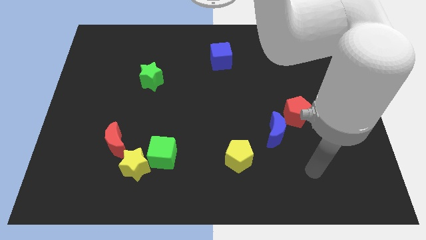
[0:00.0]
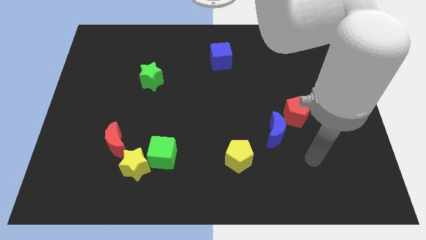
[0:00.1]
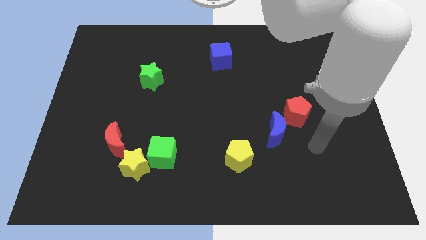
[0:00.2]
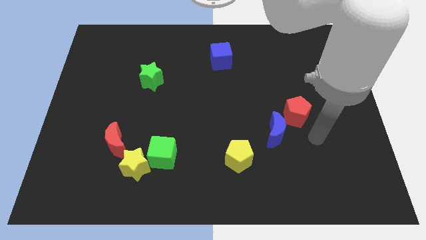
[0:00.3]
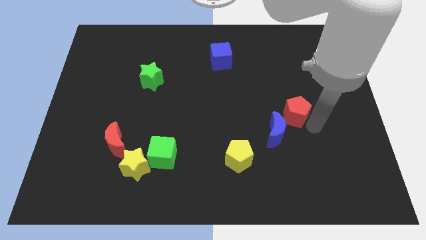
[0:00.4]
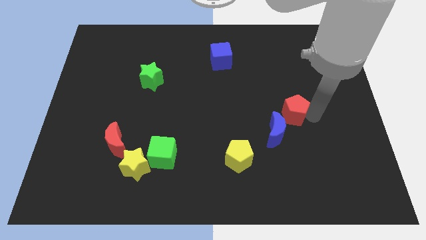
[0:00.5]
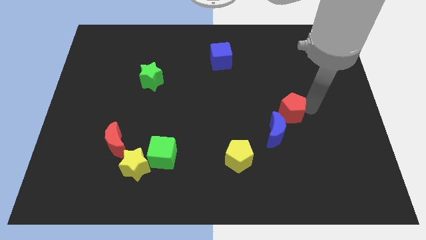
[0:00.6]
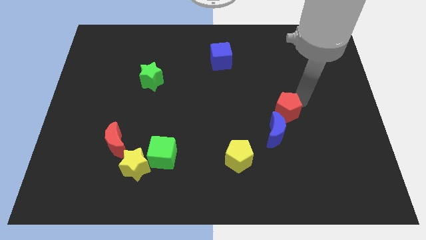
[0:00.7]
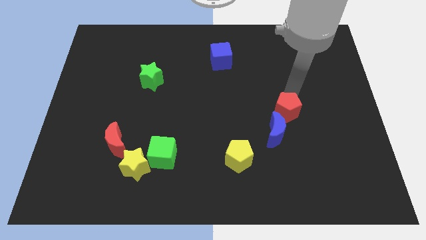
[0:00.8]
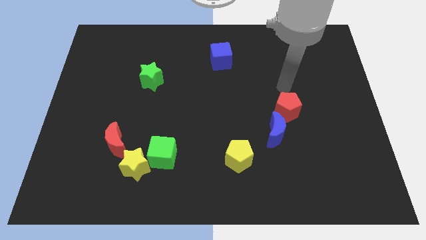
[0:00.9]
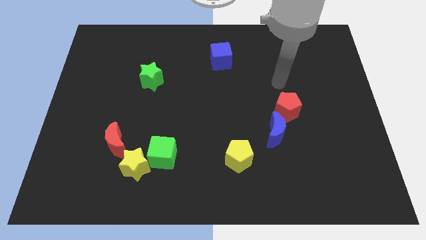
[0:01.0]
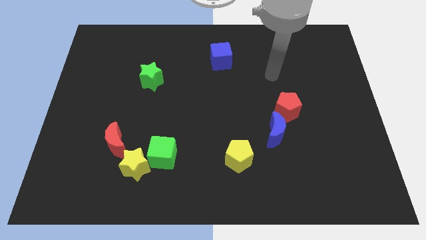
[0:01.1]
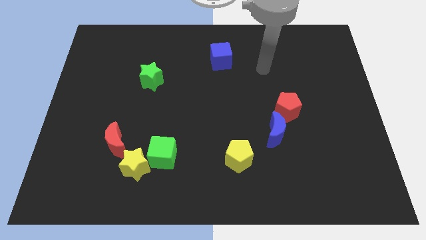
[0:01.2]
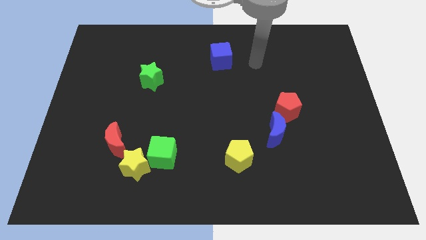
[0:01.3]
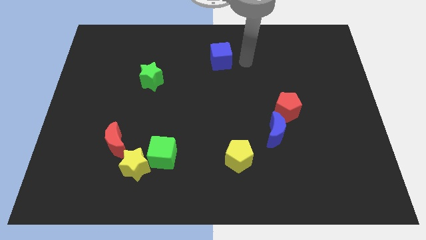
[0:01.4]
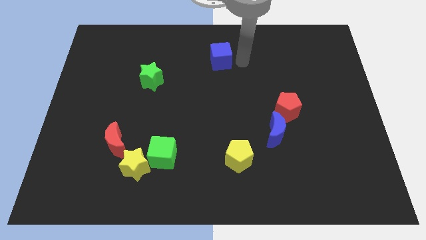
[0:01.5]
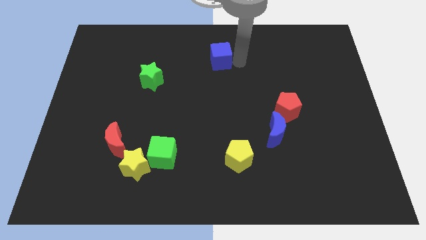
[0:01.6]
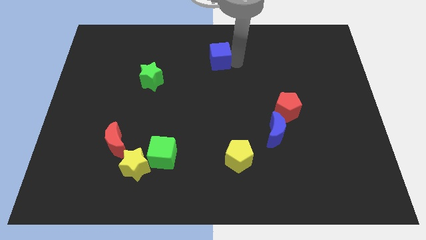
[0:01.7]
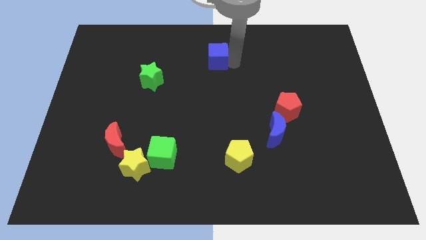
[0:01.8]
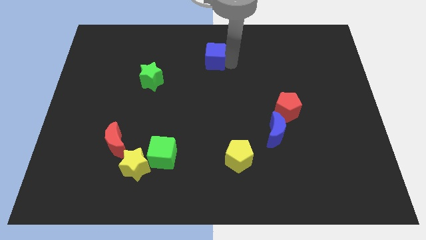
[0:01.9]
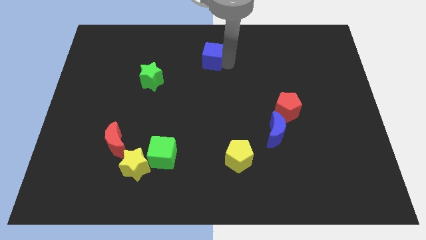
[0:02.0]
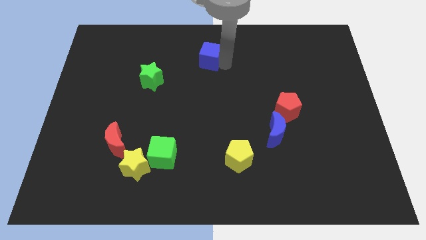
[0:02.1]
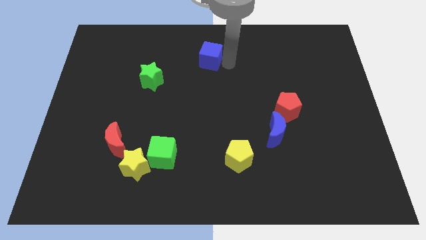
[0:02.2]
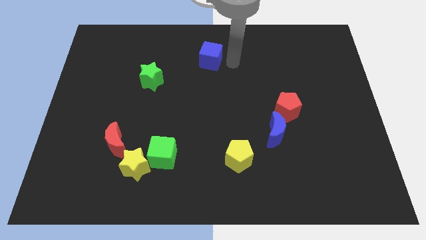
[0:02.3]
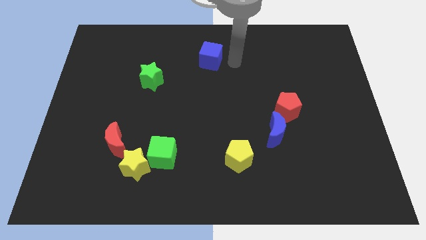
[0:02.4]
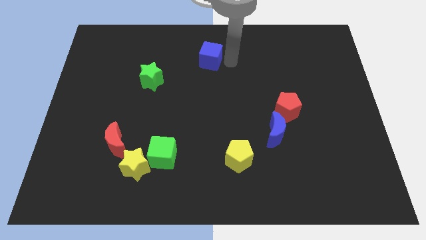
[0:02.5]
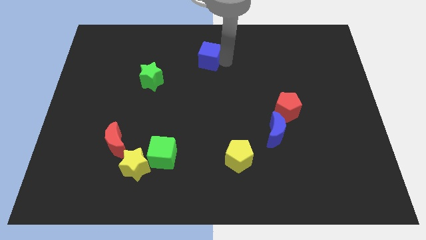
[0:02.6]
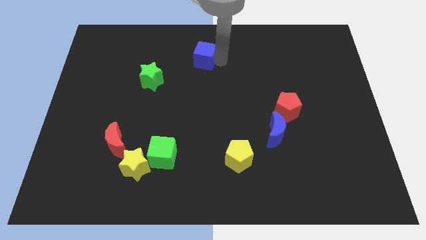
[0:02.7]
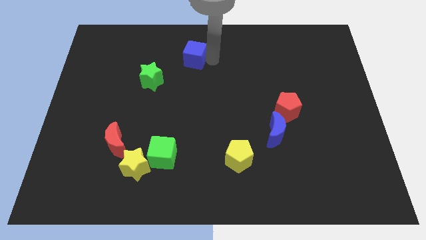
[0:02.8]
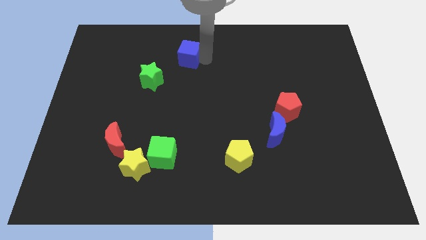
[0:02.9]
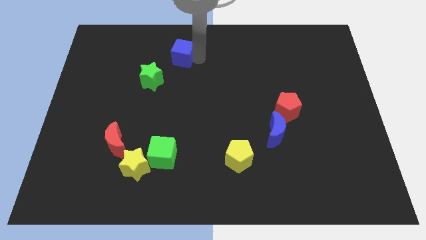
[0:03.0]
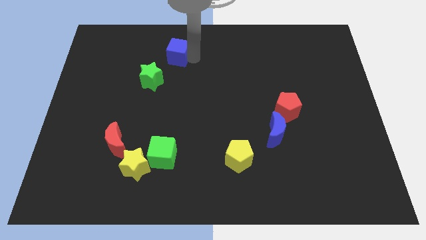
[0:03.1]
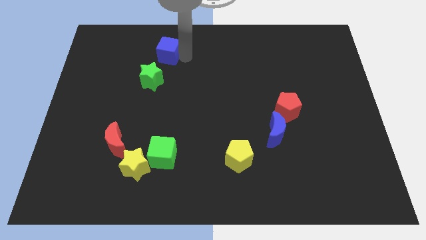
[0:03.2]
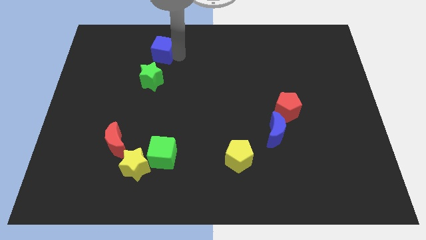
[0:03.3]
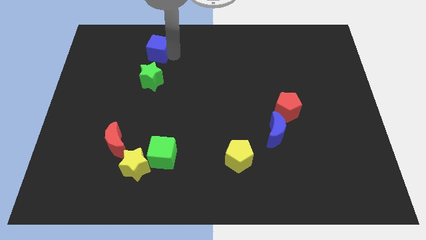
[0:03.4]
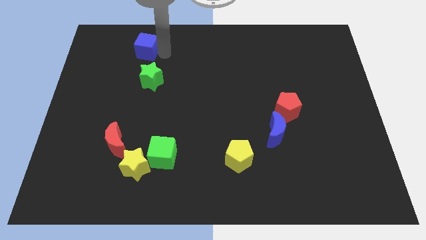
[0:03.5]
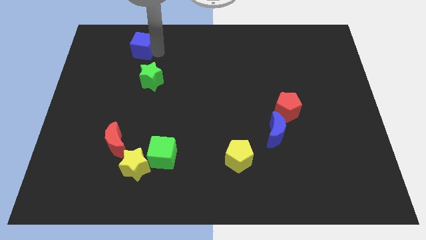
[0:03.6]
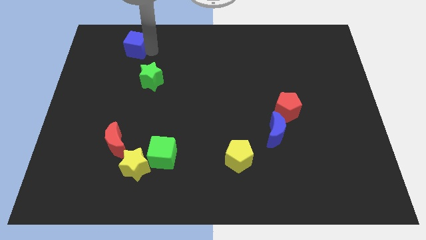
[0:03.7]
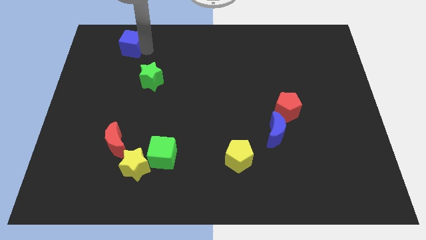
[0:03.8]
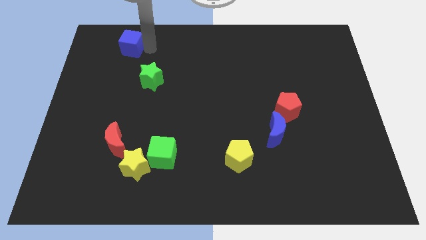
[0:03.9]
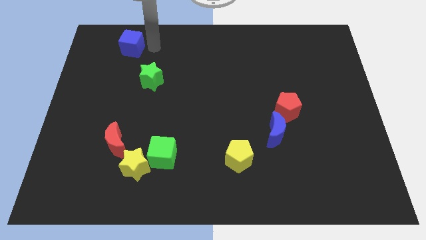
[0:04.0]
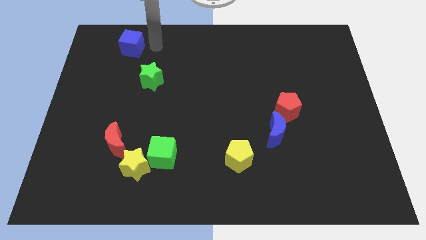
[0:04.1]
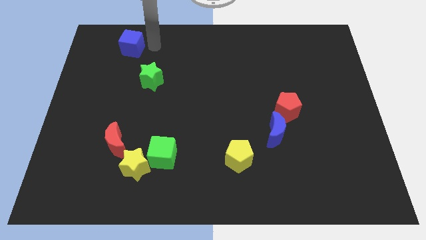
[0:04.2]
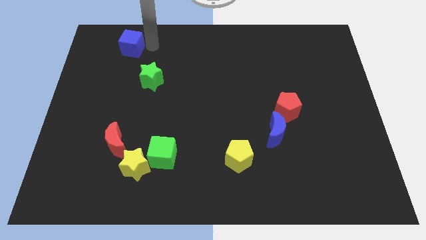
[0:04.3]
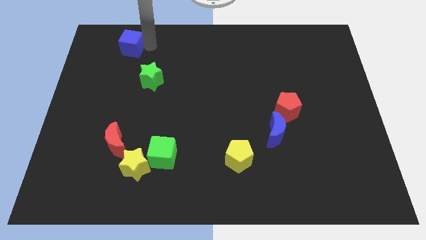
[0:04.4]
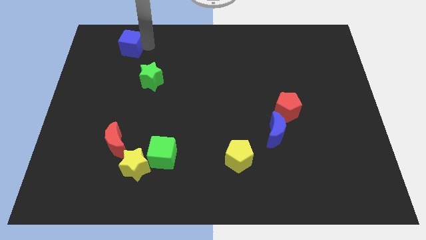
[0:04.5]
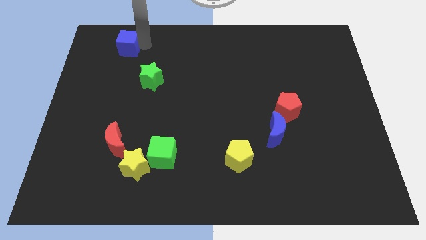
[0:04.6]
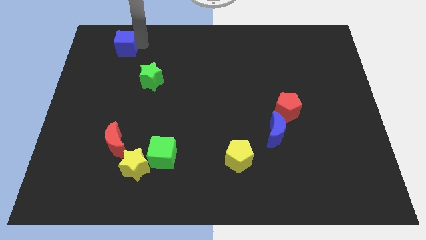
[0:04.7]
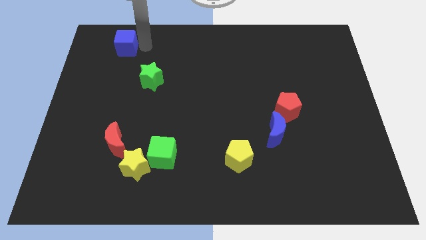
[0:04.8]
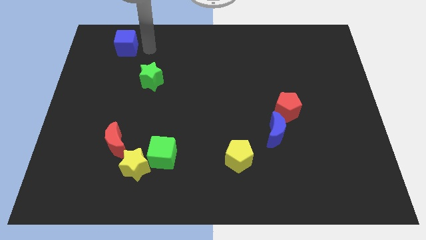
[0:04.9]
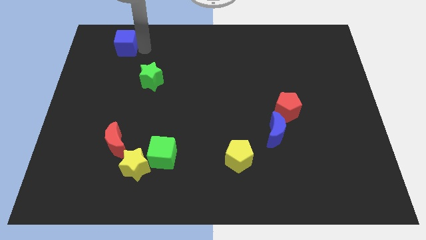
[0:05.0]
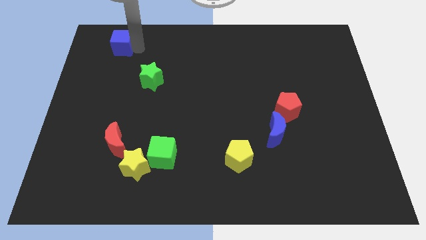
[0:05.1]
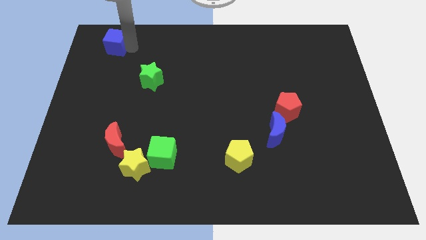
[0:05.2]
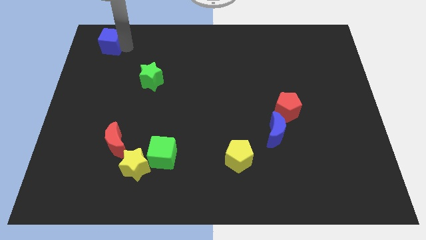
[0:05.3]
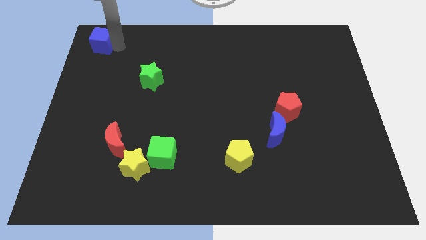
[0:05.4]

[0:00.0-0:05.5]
move the blue cube to the top left corner

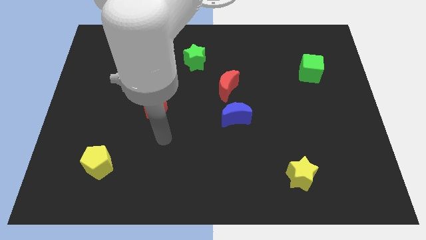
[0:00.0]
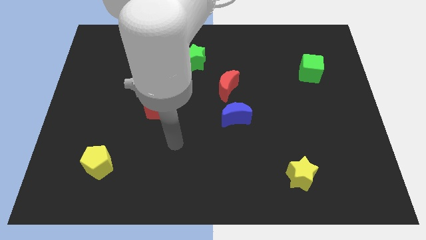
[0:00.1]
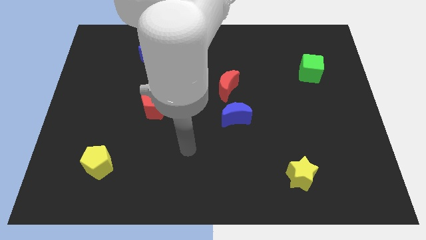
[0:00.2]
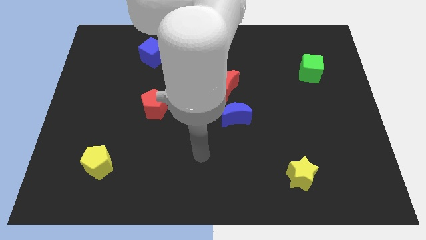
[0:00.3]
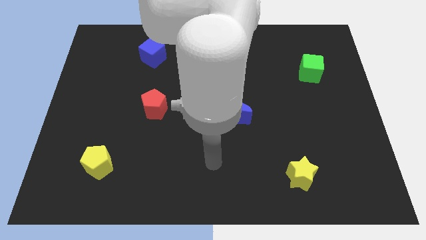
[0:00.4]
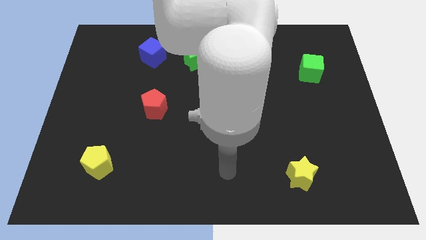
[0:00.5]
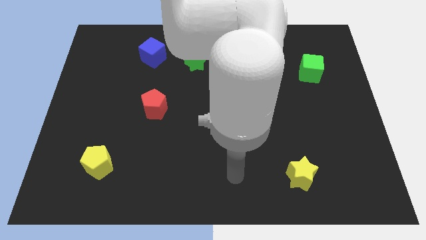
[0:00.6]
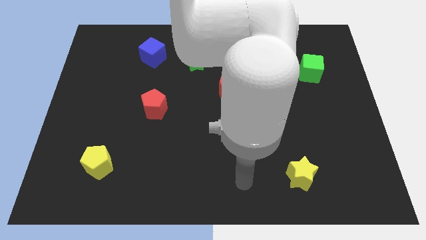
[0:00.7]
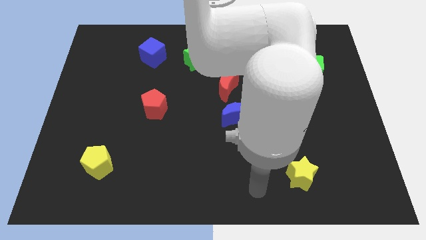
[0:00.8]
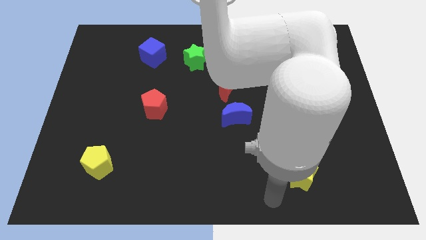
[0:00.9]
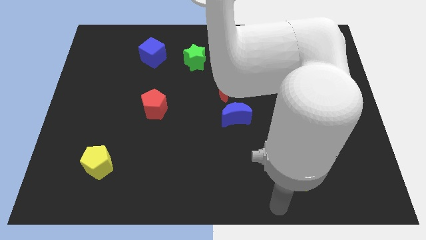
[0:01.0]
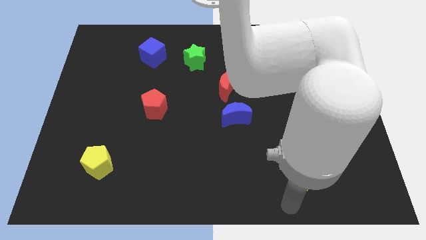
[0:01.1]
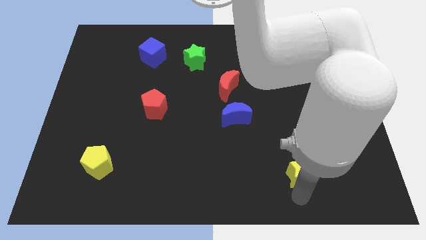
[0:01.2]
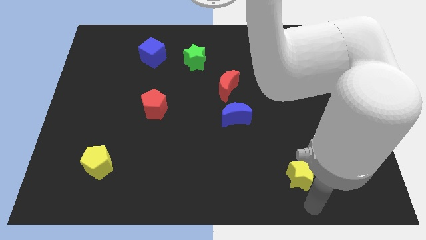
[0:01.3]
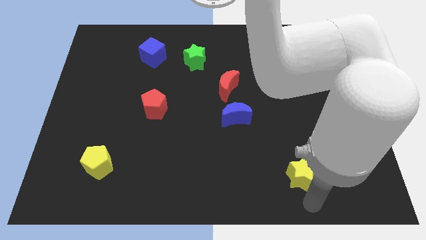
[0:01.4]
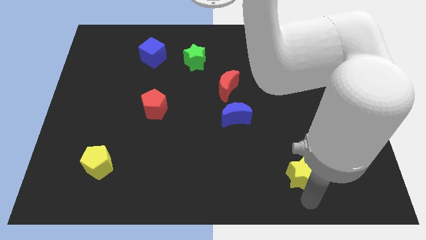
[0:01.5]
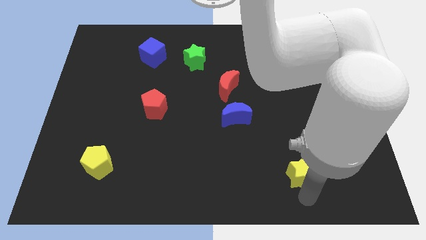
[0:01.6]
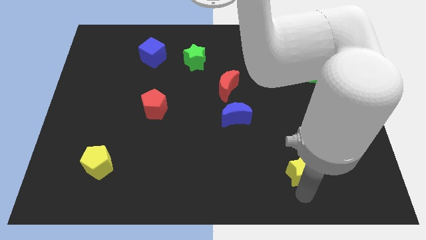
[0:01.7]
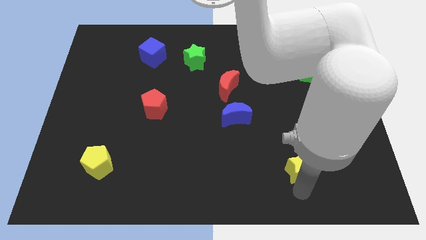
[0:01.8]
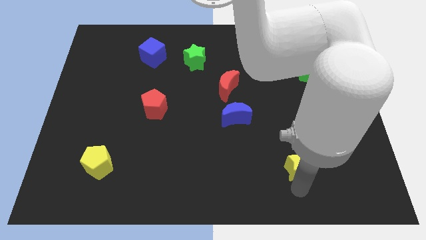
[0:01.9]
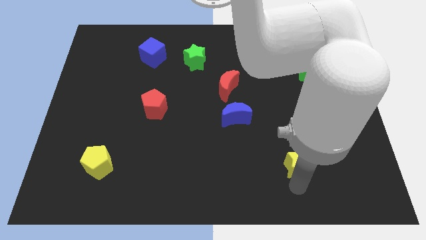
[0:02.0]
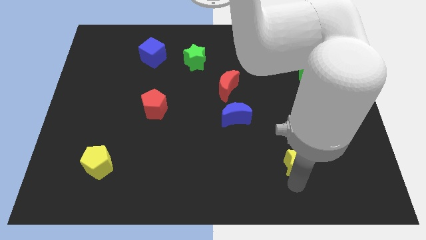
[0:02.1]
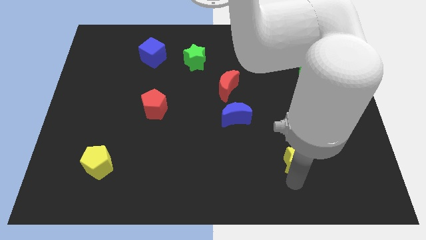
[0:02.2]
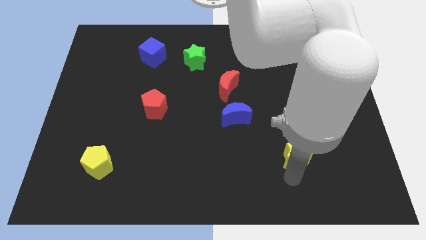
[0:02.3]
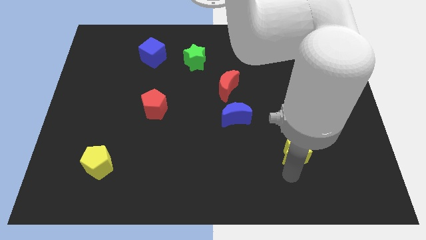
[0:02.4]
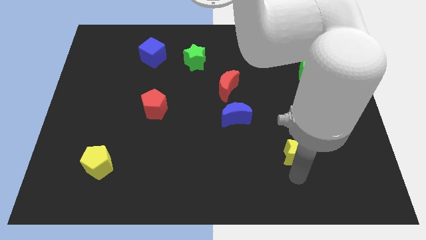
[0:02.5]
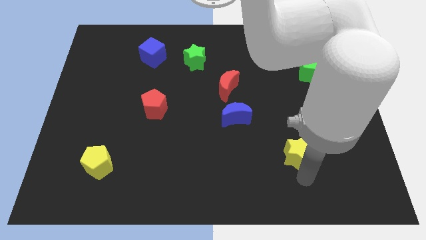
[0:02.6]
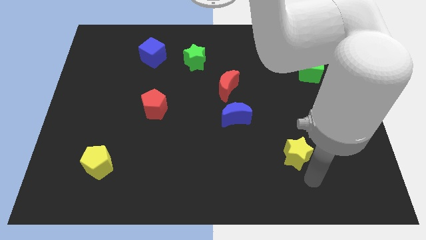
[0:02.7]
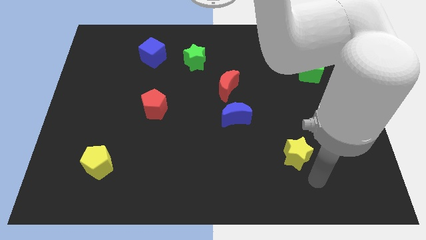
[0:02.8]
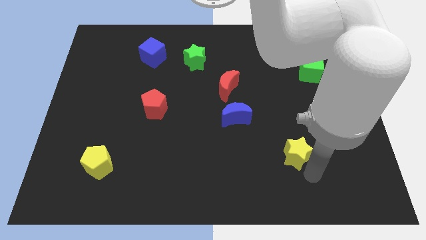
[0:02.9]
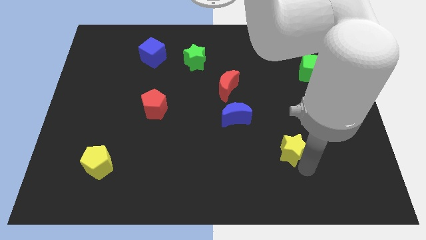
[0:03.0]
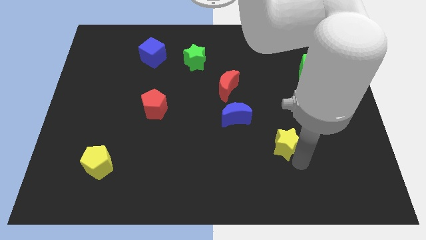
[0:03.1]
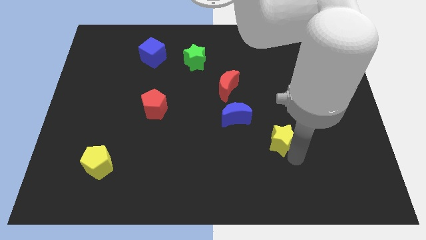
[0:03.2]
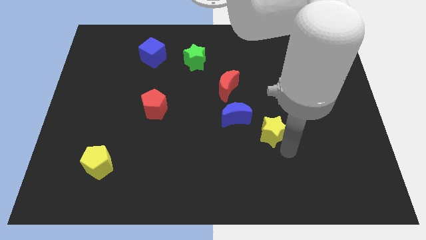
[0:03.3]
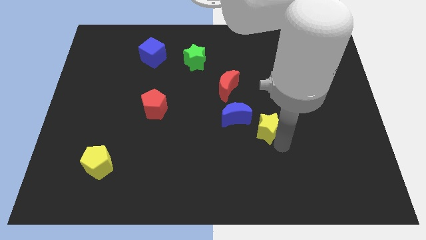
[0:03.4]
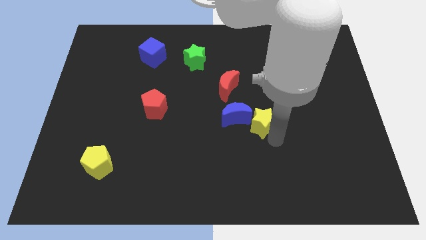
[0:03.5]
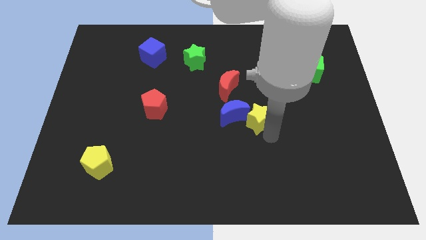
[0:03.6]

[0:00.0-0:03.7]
slide the yellow star to the center of the board
